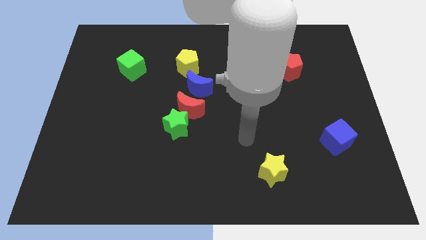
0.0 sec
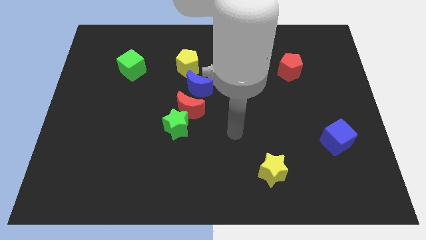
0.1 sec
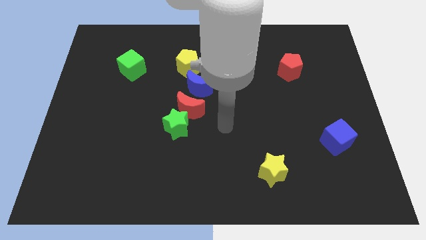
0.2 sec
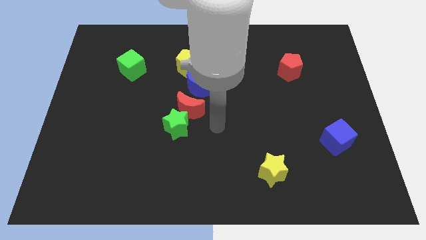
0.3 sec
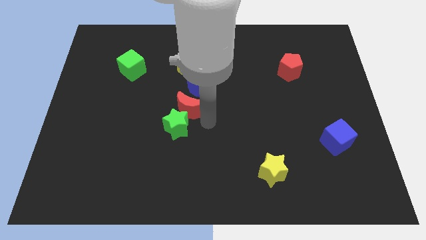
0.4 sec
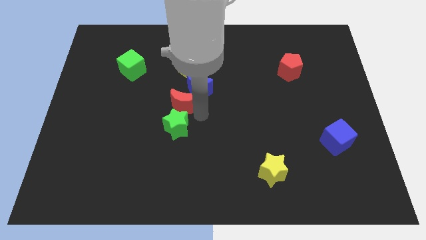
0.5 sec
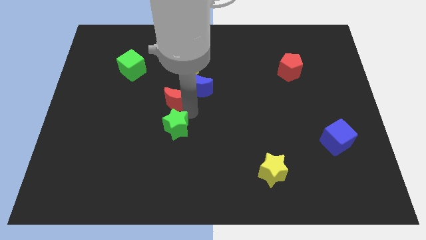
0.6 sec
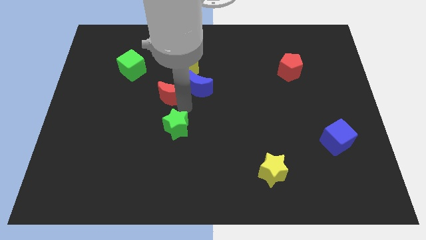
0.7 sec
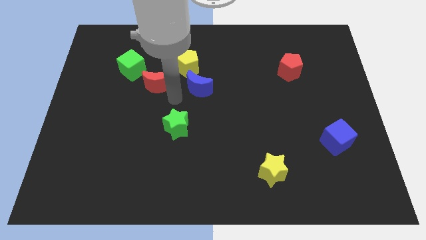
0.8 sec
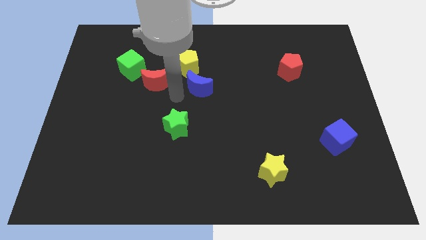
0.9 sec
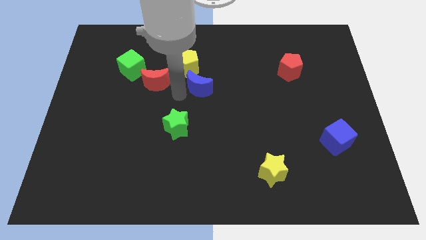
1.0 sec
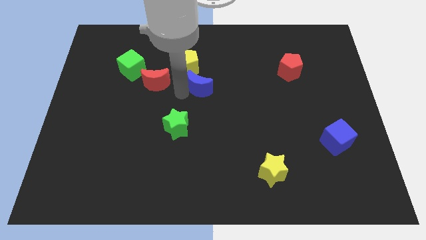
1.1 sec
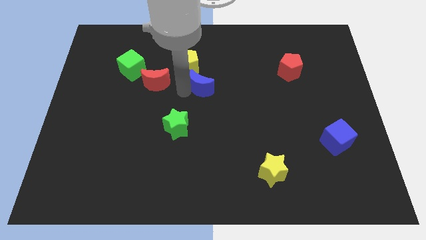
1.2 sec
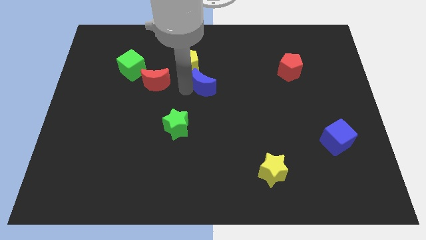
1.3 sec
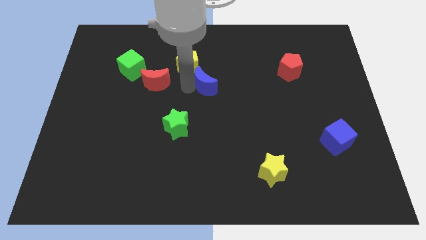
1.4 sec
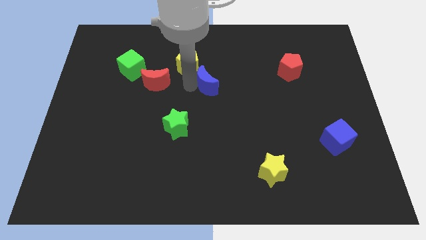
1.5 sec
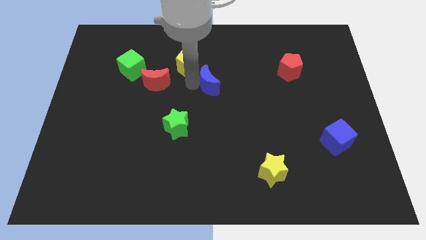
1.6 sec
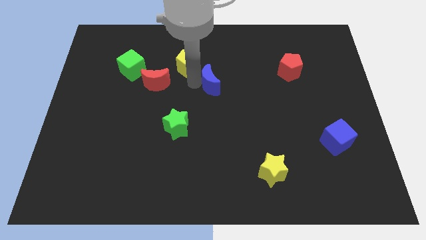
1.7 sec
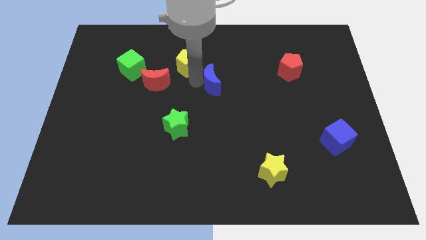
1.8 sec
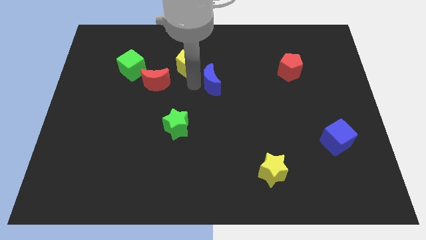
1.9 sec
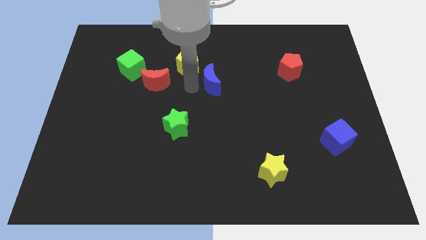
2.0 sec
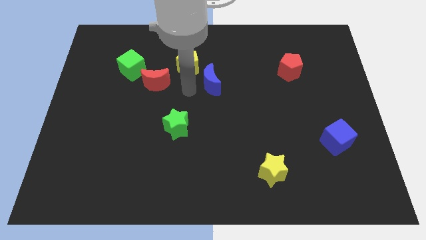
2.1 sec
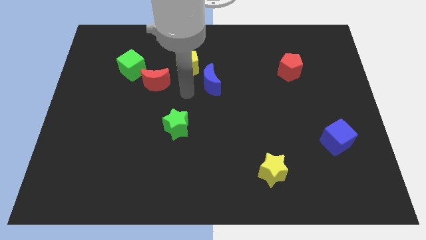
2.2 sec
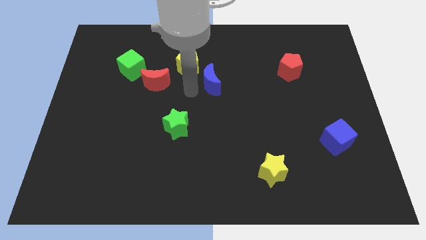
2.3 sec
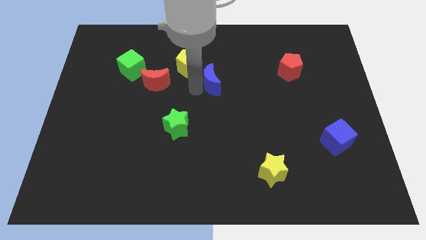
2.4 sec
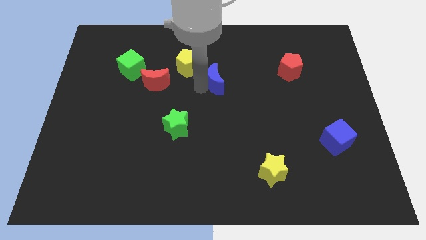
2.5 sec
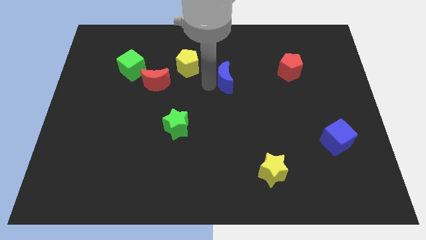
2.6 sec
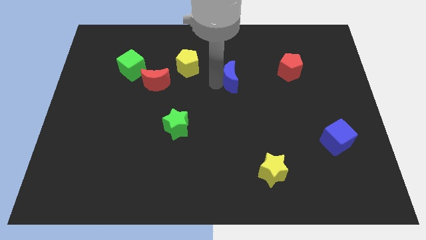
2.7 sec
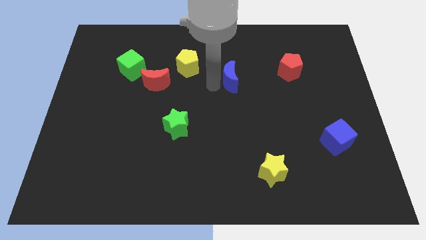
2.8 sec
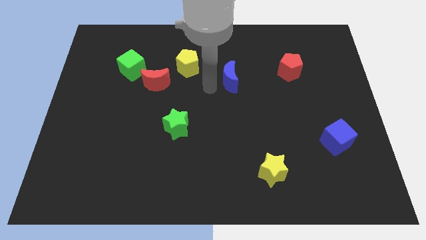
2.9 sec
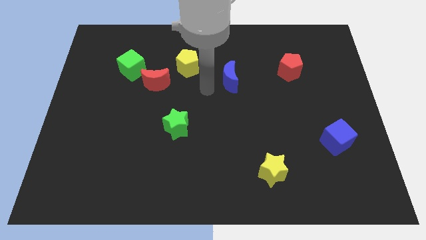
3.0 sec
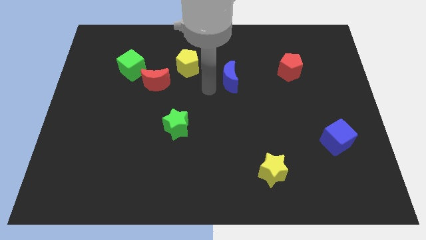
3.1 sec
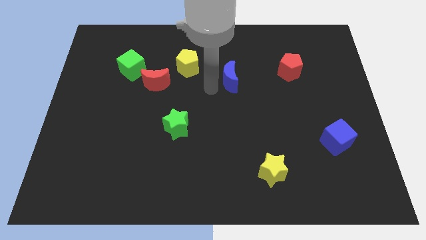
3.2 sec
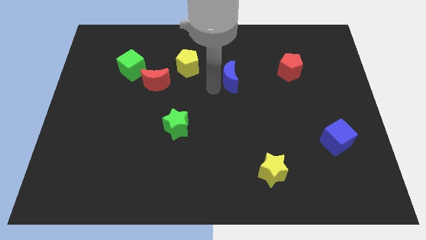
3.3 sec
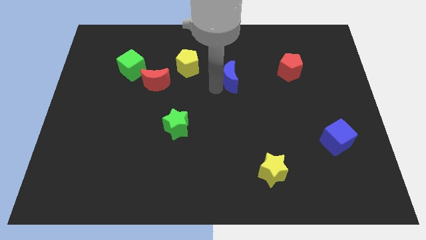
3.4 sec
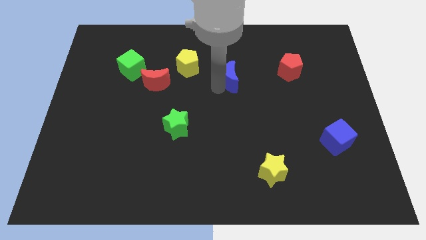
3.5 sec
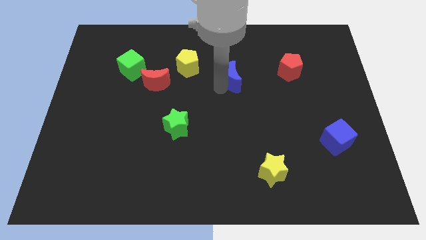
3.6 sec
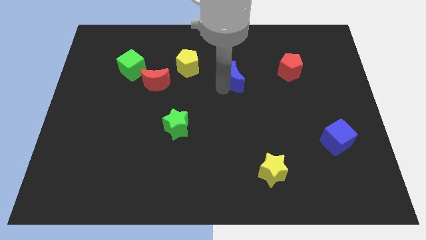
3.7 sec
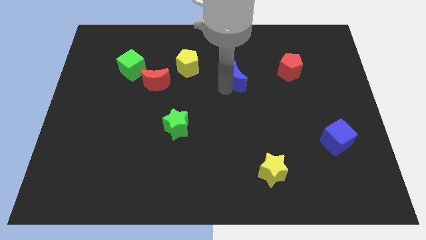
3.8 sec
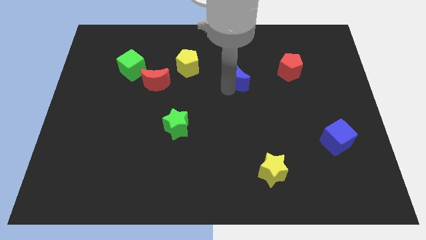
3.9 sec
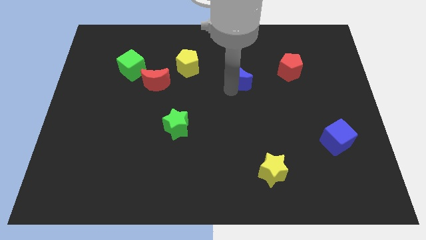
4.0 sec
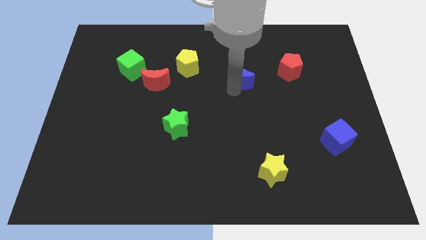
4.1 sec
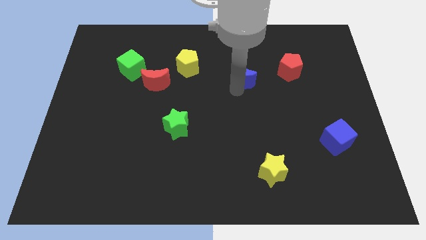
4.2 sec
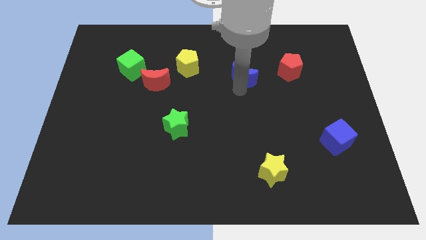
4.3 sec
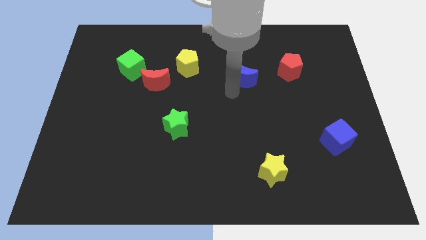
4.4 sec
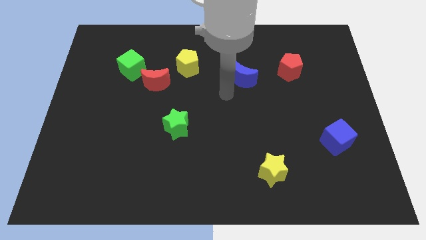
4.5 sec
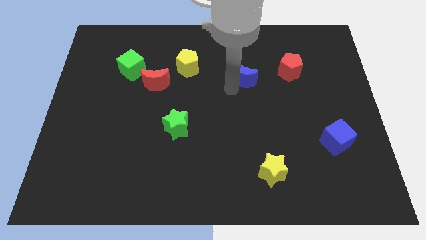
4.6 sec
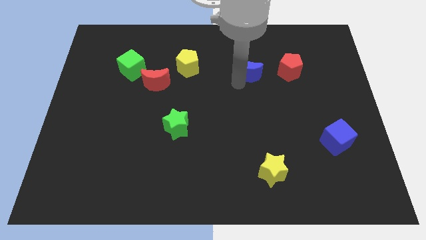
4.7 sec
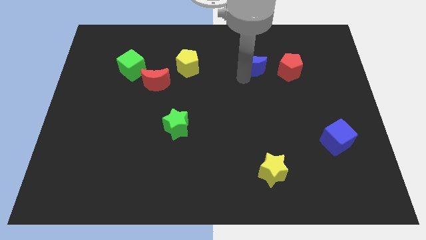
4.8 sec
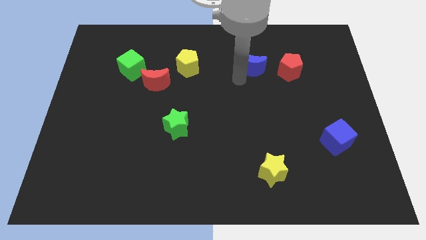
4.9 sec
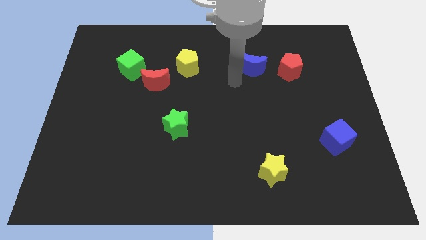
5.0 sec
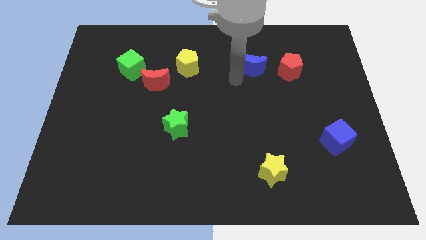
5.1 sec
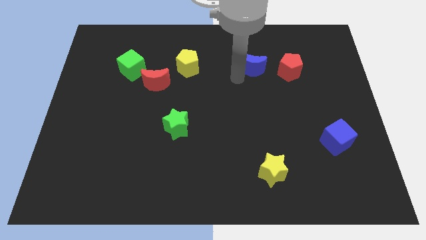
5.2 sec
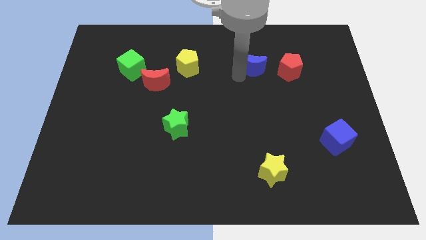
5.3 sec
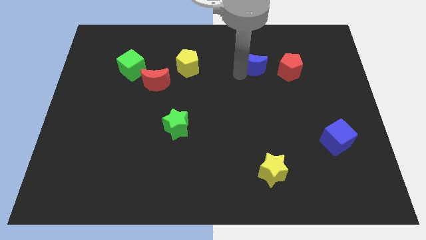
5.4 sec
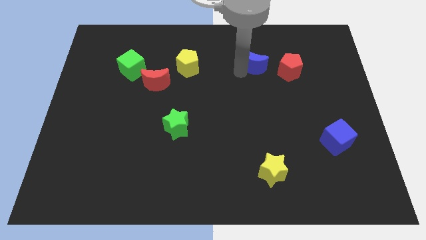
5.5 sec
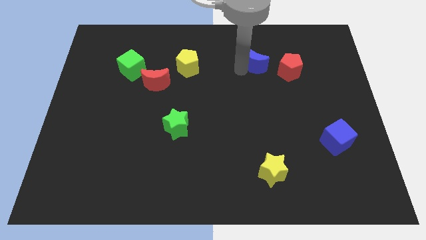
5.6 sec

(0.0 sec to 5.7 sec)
push the blue moon to the top left side of the red pentagon
